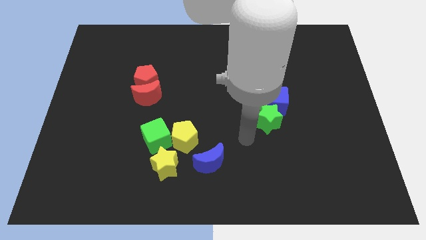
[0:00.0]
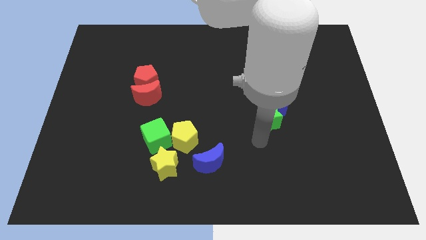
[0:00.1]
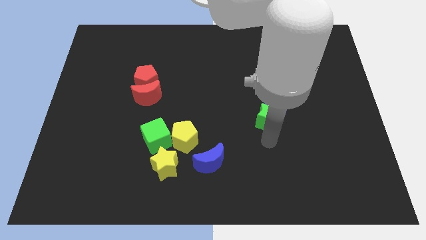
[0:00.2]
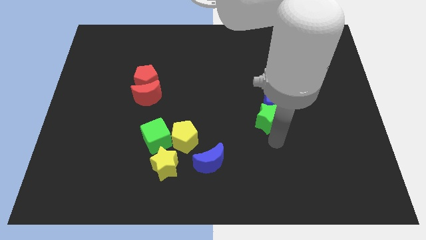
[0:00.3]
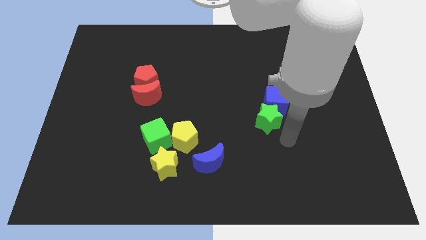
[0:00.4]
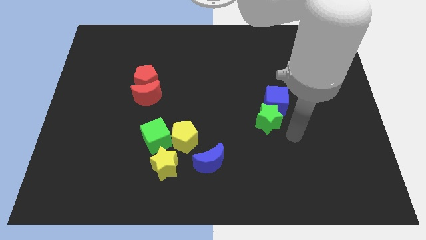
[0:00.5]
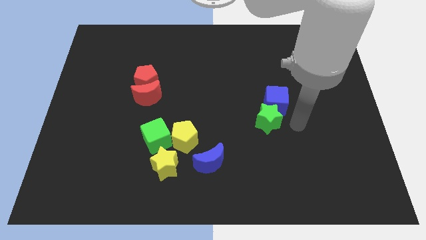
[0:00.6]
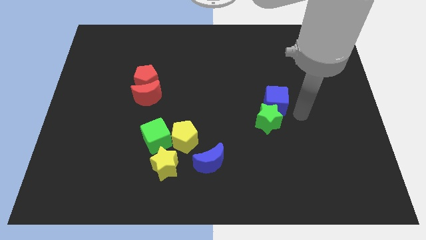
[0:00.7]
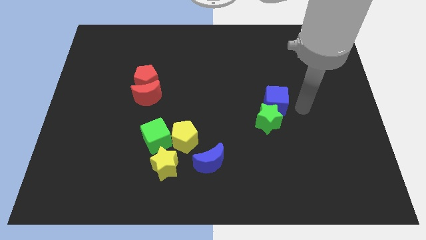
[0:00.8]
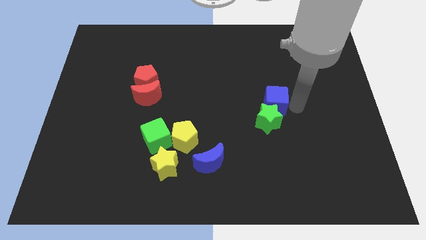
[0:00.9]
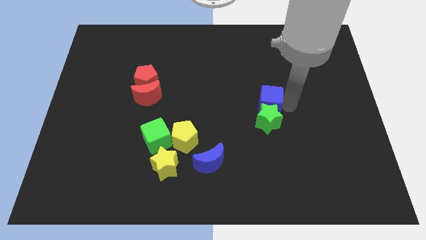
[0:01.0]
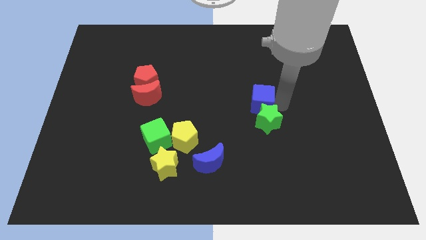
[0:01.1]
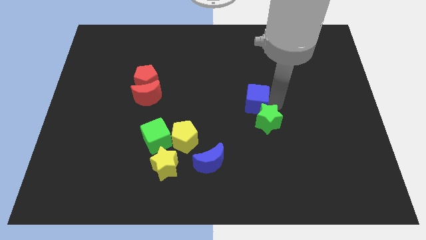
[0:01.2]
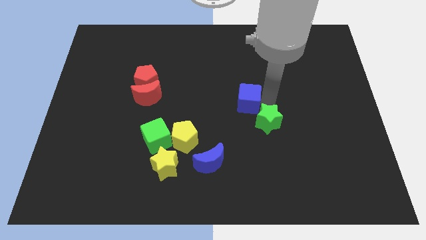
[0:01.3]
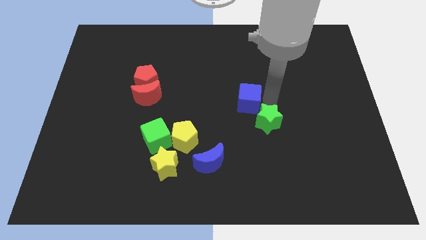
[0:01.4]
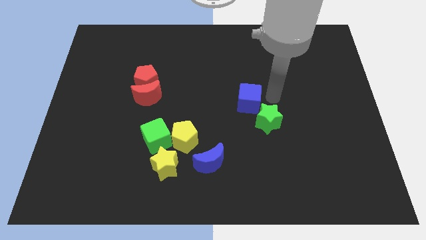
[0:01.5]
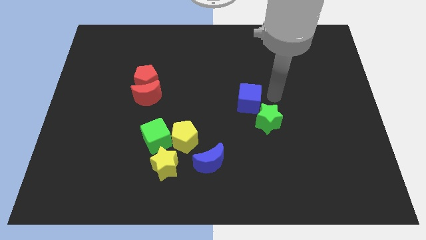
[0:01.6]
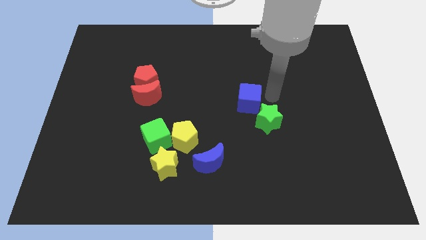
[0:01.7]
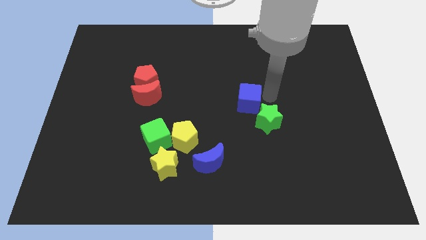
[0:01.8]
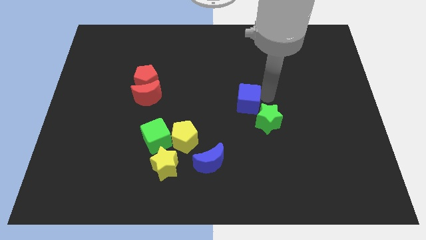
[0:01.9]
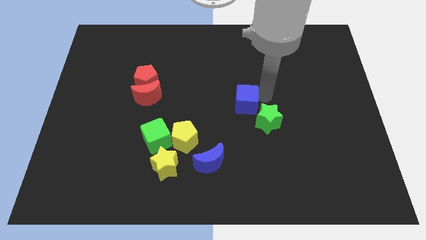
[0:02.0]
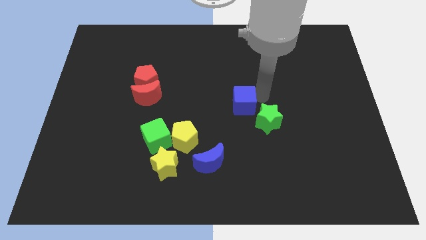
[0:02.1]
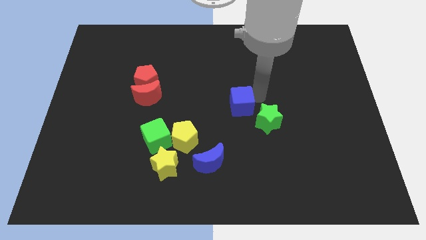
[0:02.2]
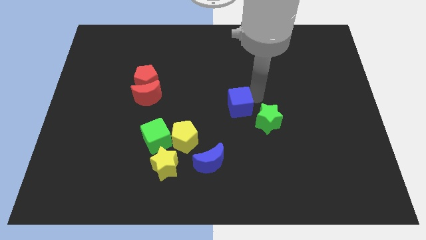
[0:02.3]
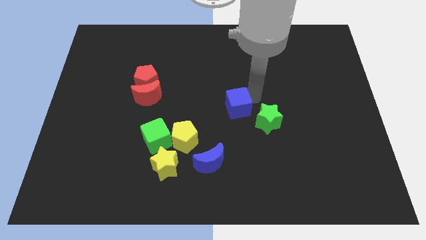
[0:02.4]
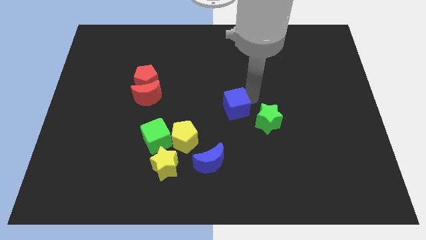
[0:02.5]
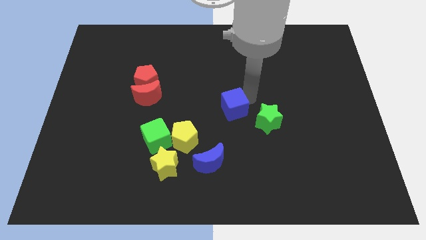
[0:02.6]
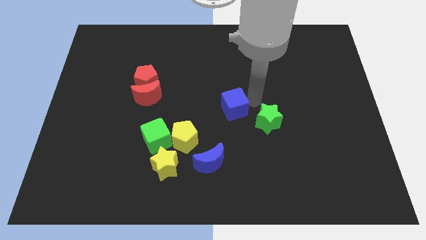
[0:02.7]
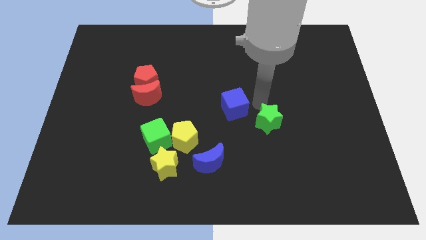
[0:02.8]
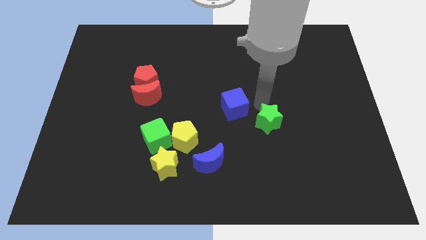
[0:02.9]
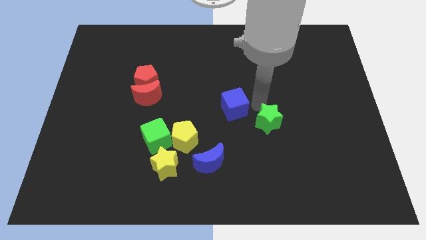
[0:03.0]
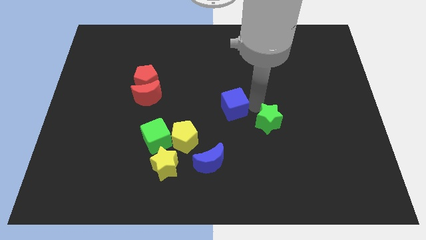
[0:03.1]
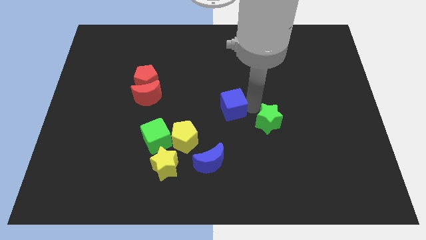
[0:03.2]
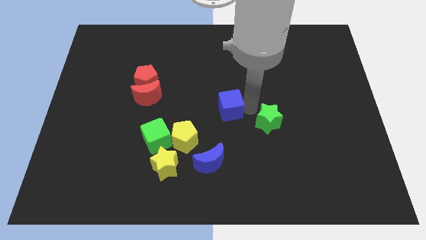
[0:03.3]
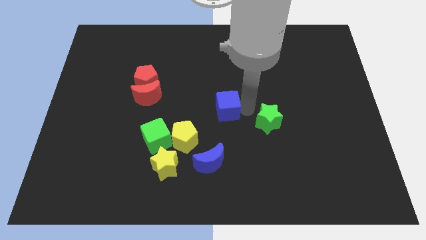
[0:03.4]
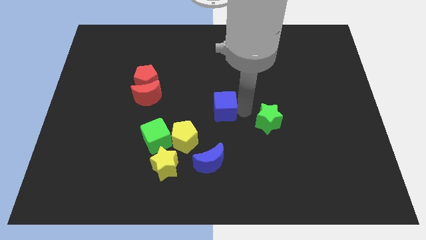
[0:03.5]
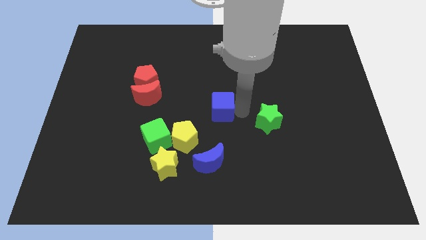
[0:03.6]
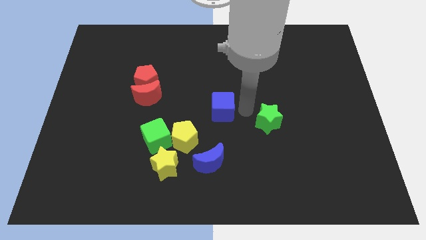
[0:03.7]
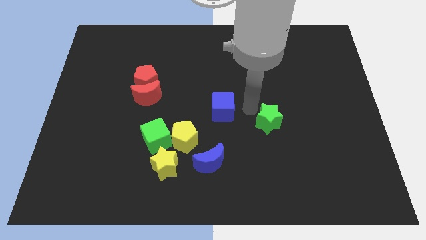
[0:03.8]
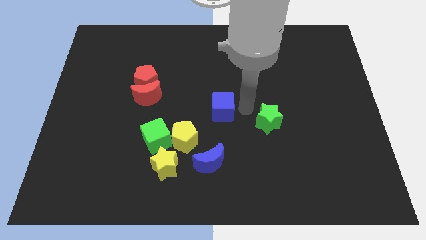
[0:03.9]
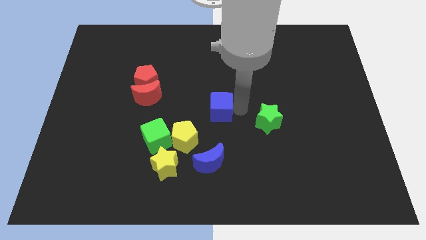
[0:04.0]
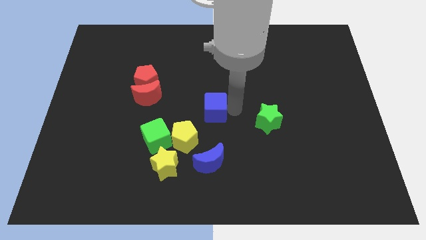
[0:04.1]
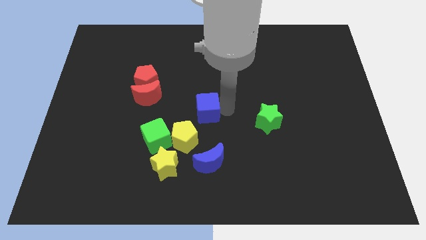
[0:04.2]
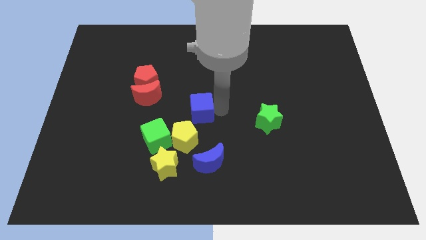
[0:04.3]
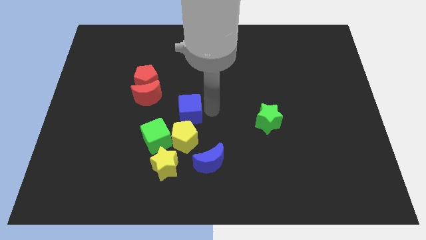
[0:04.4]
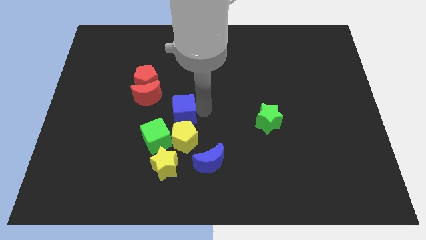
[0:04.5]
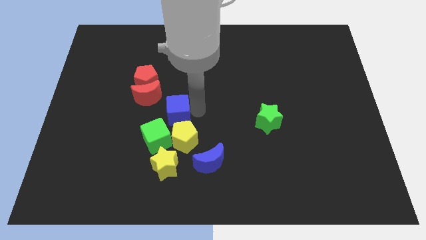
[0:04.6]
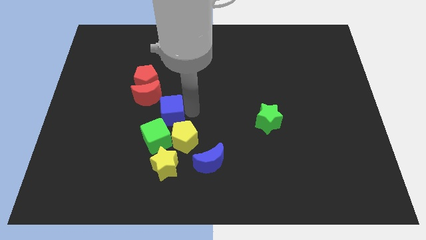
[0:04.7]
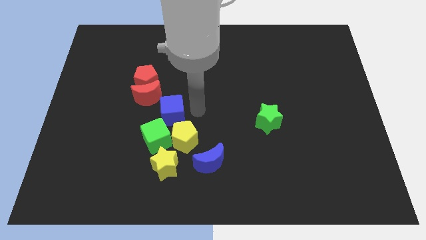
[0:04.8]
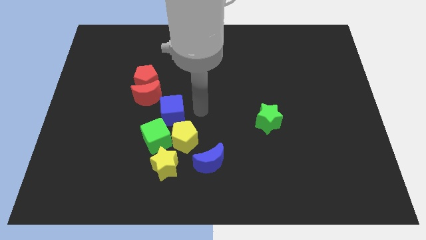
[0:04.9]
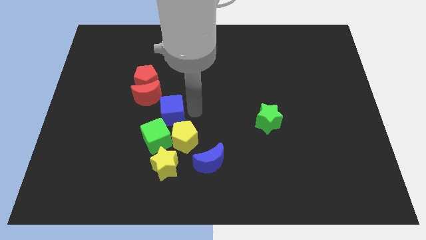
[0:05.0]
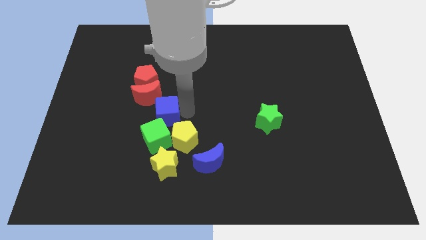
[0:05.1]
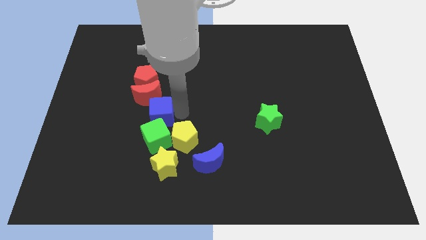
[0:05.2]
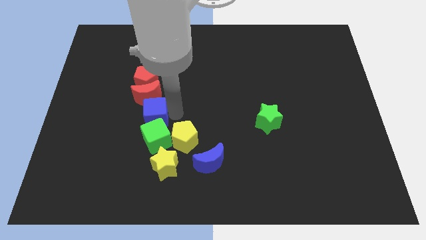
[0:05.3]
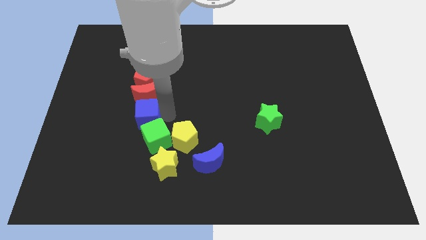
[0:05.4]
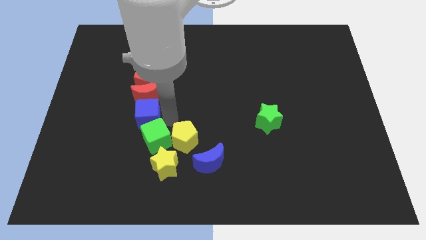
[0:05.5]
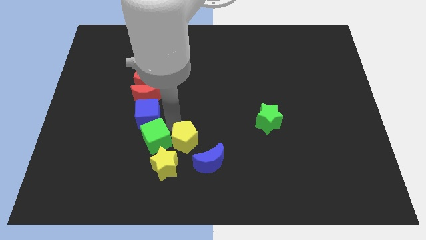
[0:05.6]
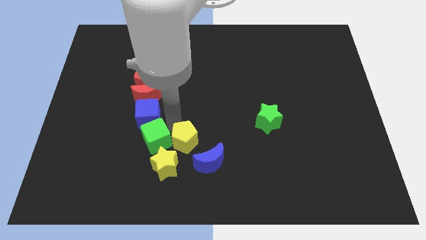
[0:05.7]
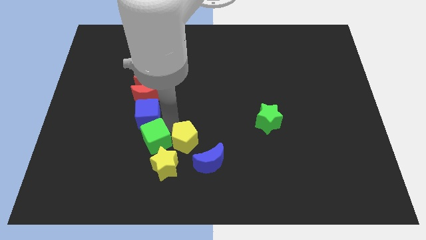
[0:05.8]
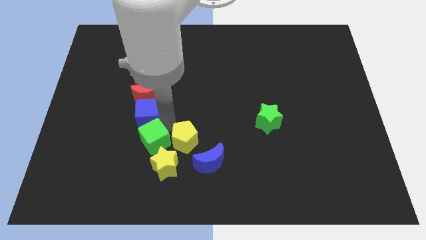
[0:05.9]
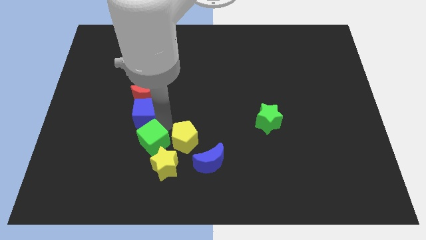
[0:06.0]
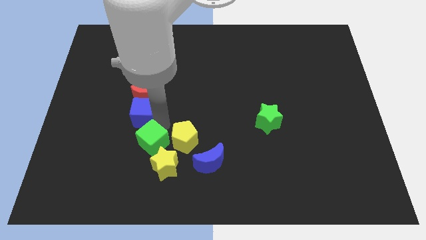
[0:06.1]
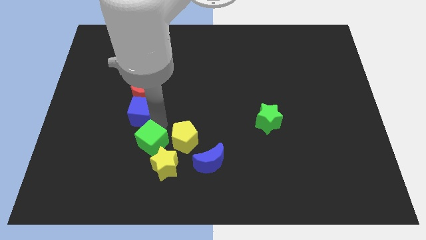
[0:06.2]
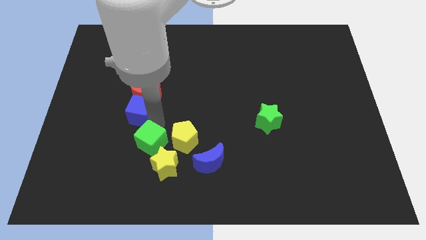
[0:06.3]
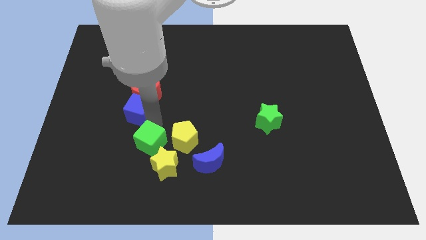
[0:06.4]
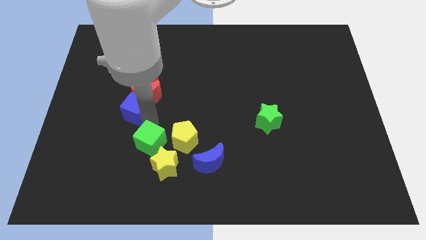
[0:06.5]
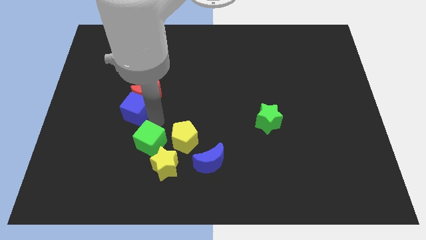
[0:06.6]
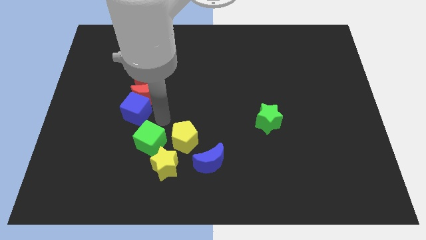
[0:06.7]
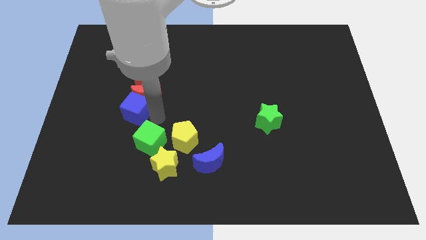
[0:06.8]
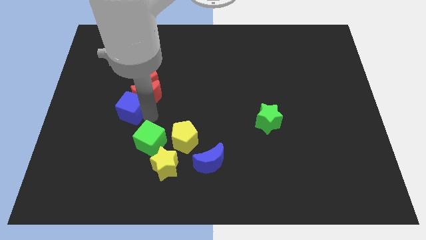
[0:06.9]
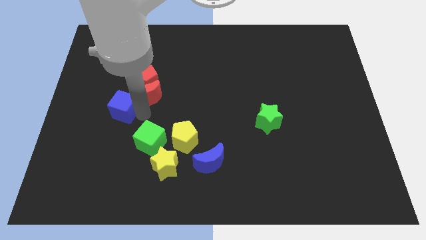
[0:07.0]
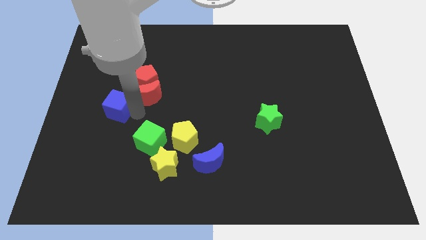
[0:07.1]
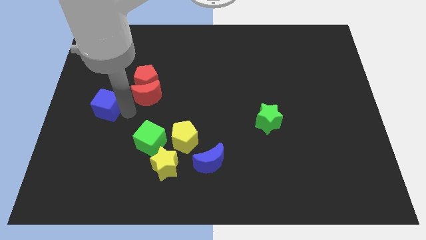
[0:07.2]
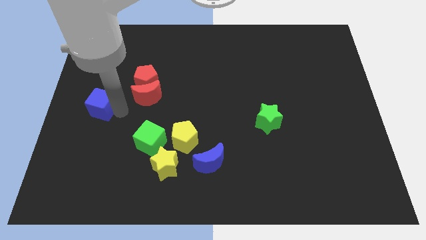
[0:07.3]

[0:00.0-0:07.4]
push the blue cube to the left side
